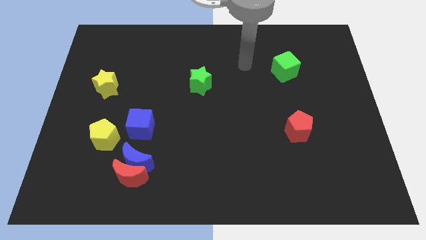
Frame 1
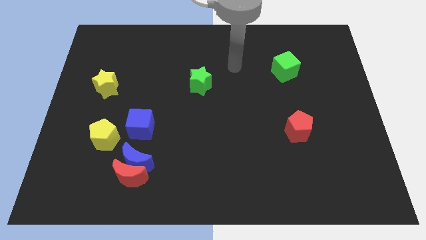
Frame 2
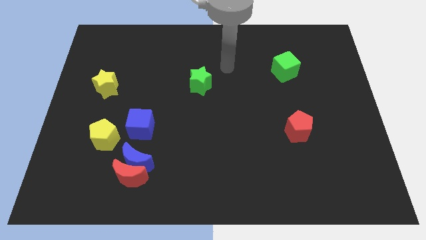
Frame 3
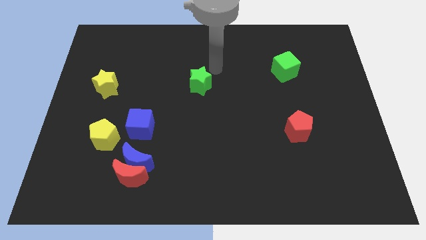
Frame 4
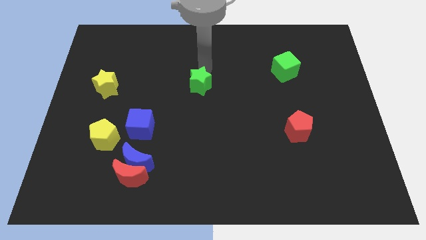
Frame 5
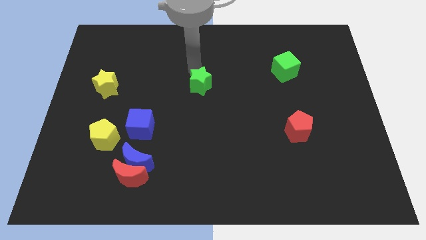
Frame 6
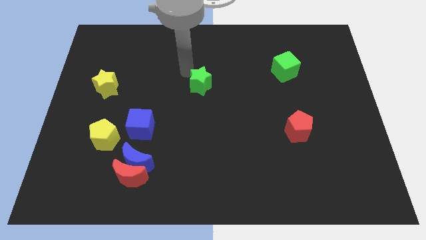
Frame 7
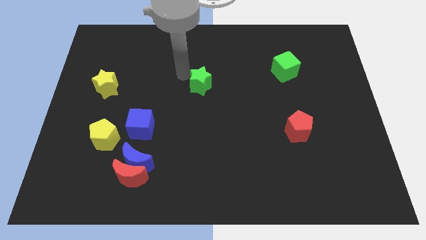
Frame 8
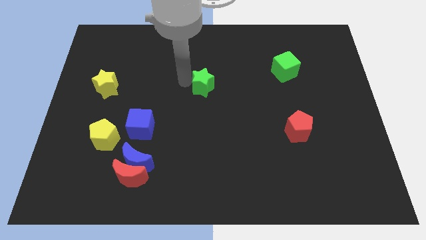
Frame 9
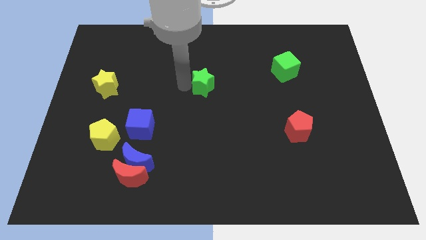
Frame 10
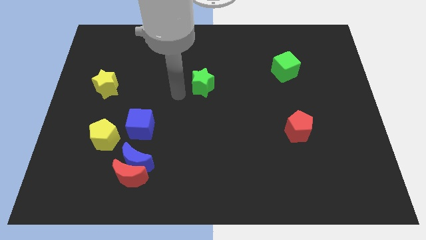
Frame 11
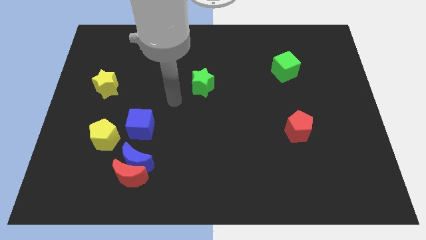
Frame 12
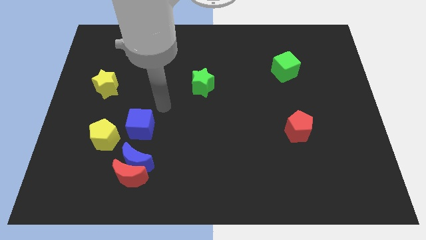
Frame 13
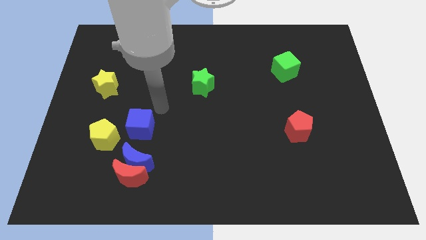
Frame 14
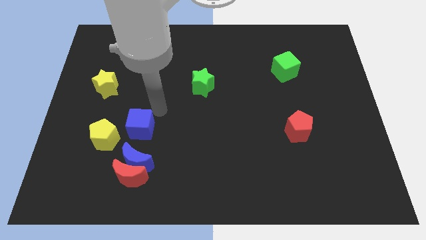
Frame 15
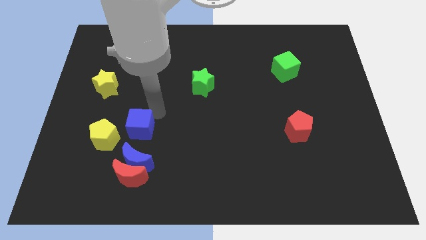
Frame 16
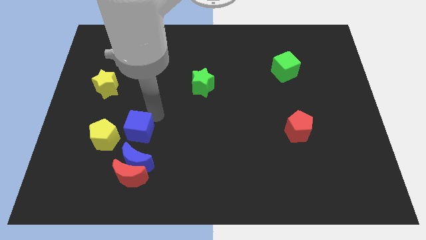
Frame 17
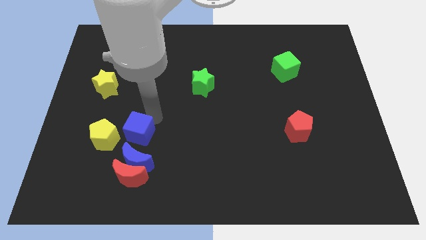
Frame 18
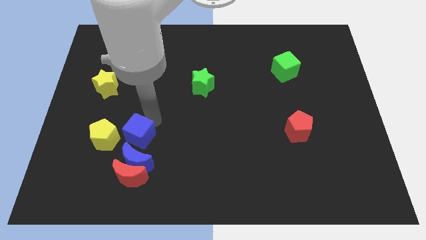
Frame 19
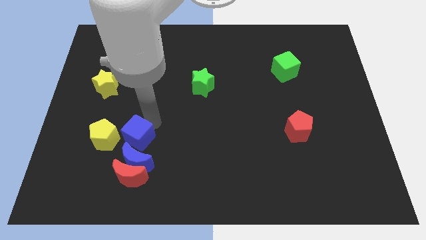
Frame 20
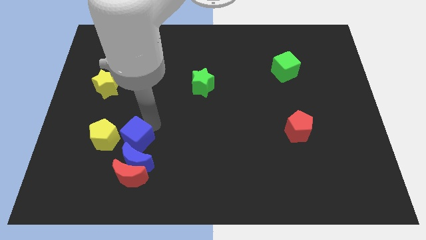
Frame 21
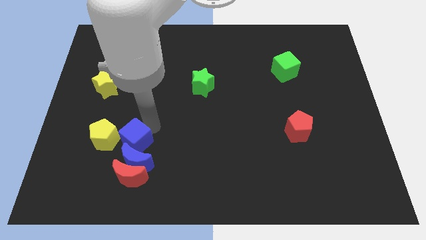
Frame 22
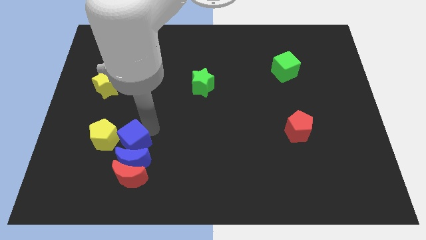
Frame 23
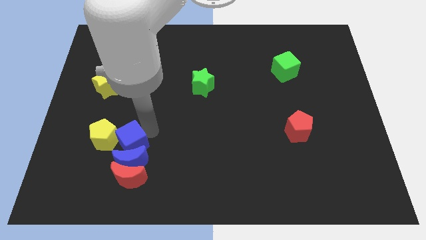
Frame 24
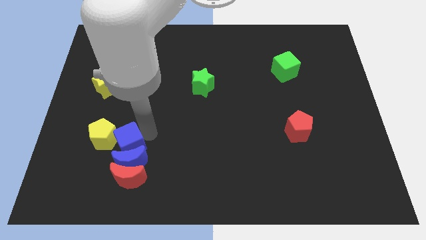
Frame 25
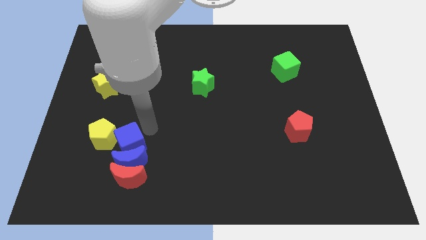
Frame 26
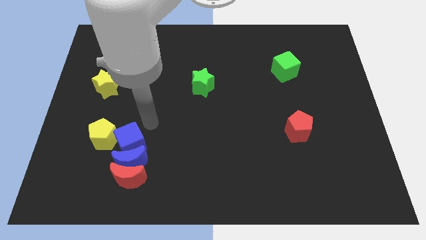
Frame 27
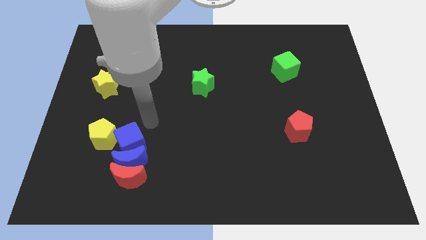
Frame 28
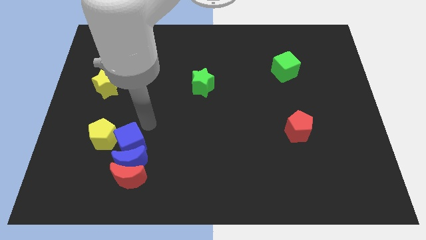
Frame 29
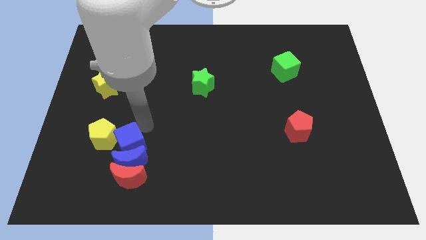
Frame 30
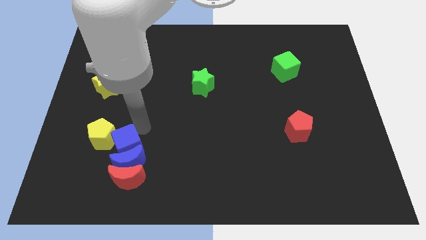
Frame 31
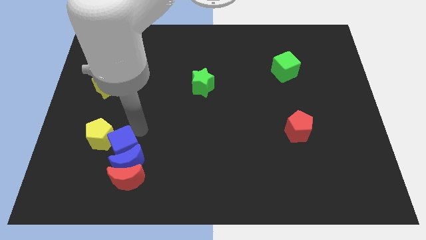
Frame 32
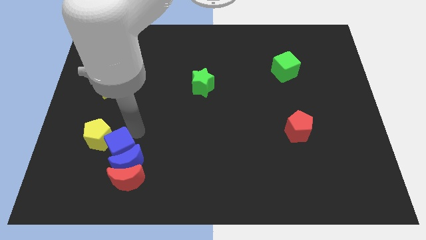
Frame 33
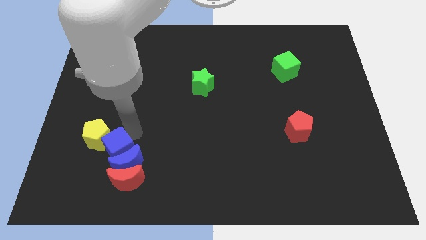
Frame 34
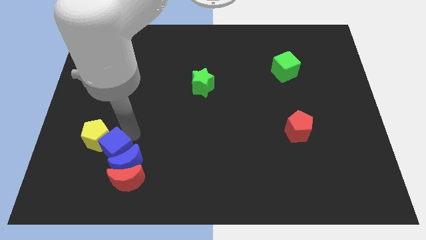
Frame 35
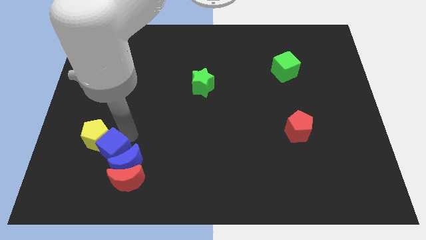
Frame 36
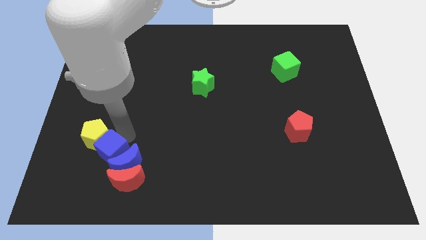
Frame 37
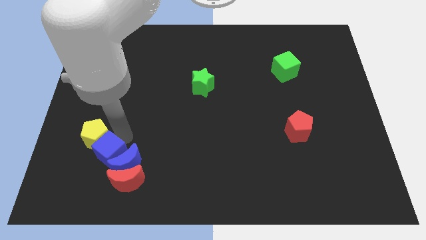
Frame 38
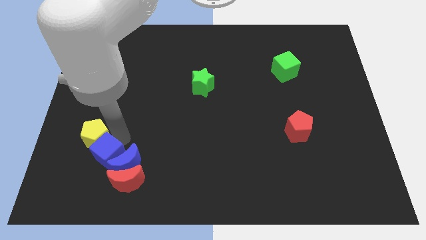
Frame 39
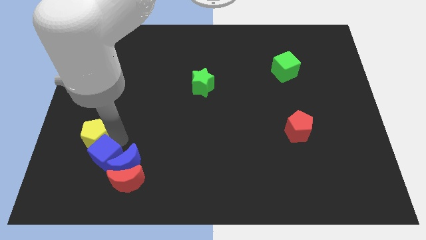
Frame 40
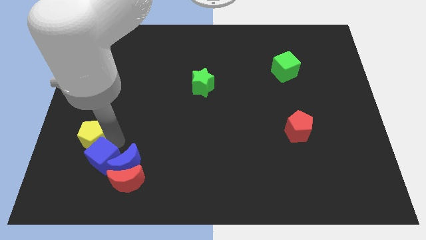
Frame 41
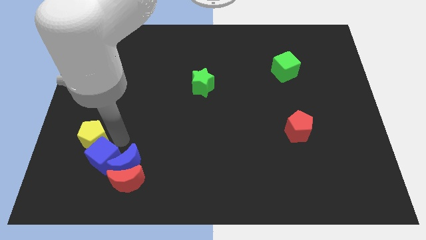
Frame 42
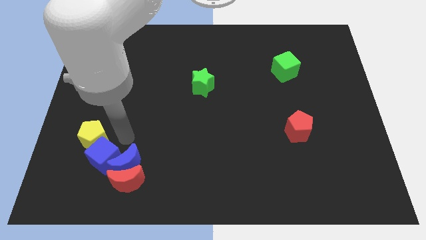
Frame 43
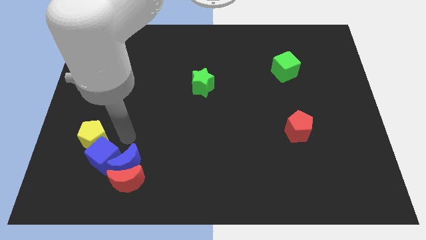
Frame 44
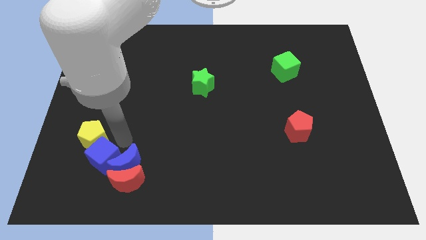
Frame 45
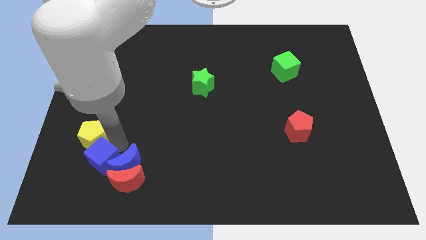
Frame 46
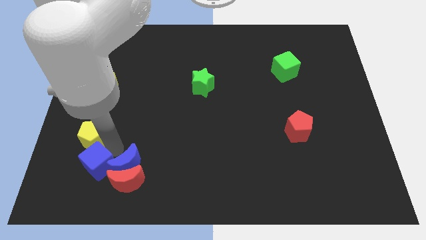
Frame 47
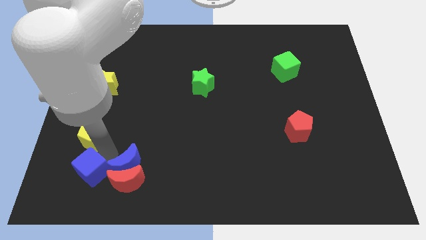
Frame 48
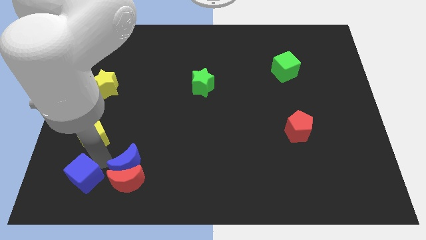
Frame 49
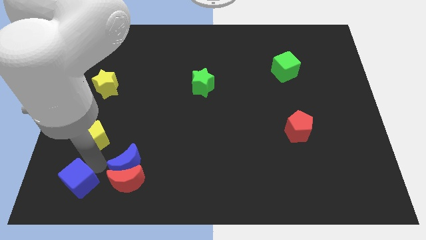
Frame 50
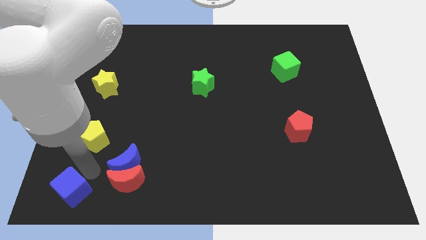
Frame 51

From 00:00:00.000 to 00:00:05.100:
move the blue cube to the bottom left of the board

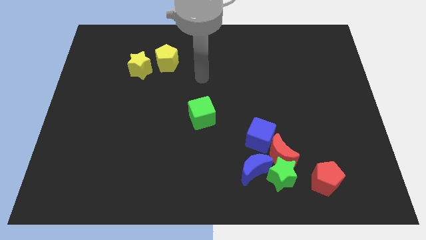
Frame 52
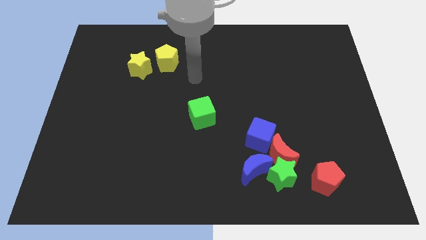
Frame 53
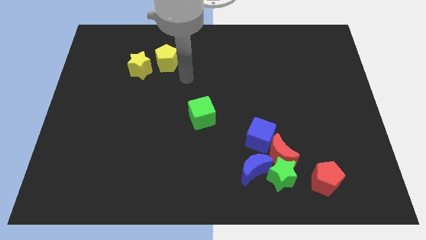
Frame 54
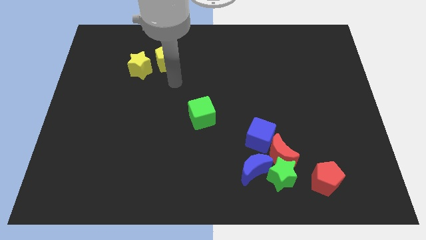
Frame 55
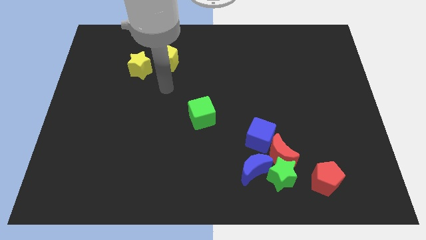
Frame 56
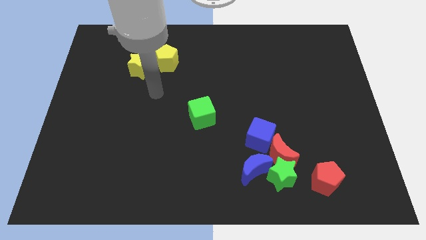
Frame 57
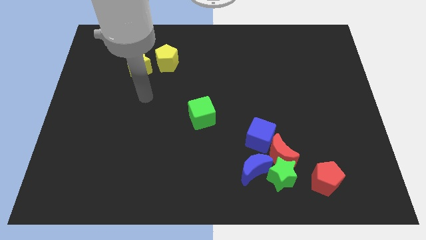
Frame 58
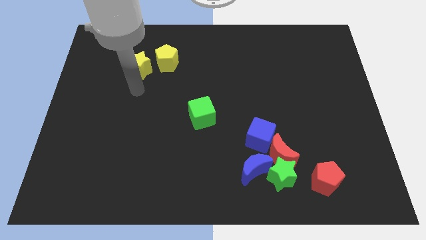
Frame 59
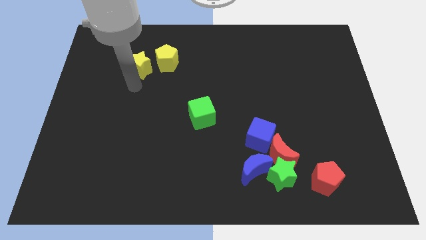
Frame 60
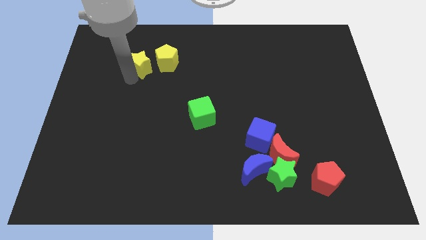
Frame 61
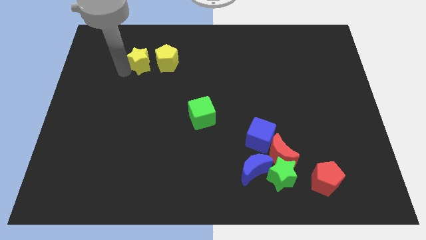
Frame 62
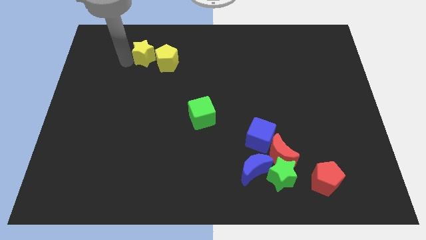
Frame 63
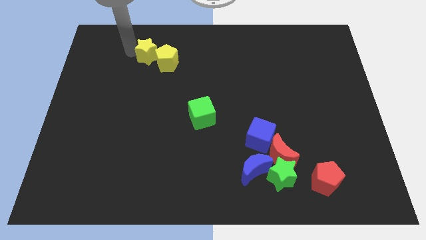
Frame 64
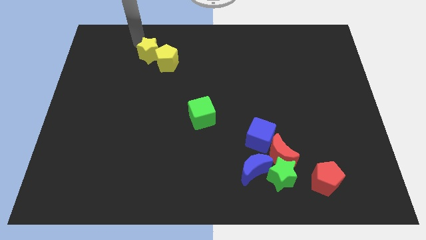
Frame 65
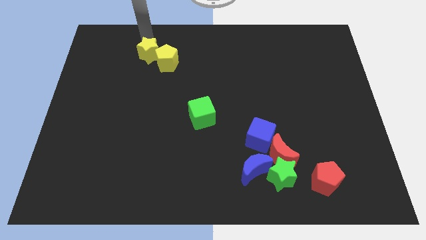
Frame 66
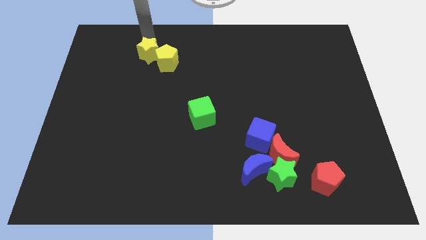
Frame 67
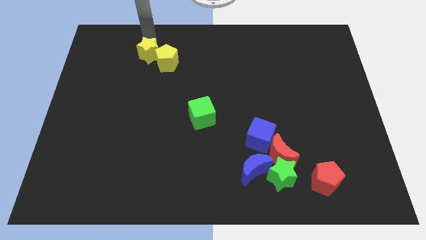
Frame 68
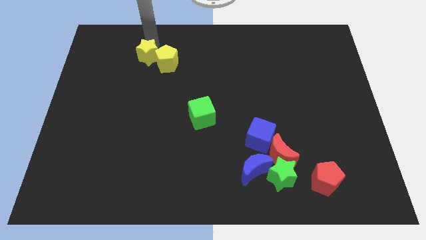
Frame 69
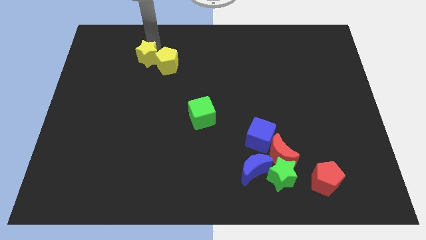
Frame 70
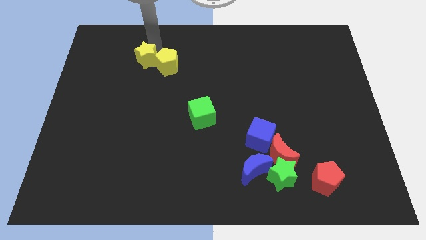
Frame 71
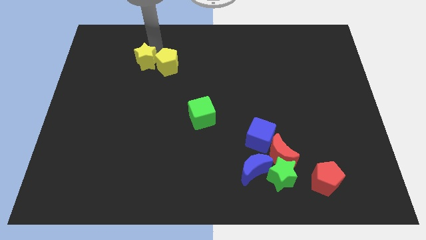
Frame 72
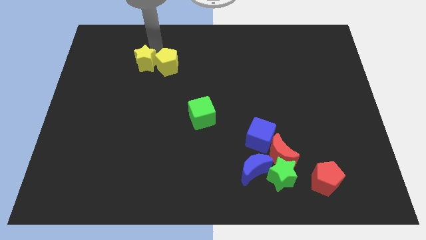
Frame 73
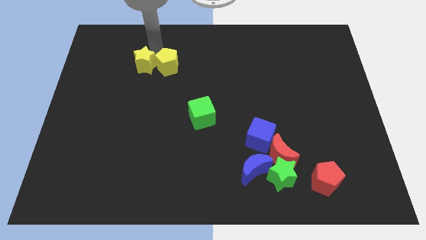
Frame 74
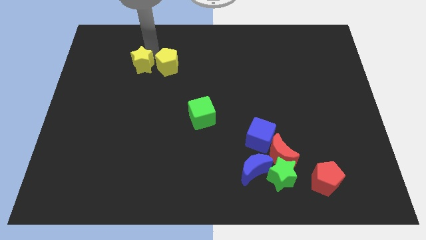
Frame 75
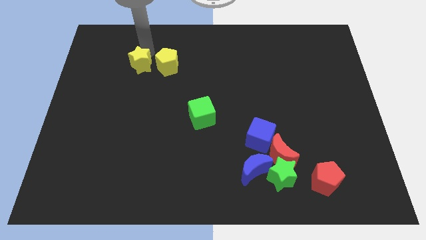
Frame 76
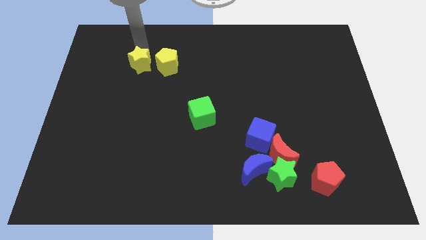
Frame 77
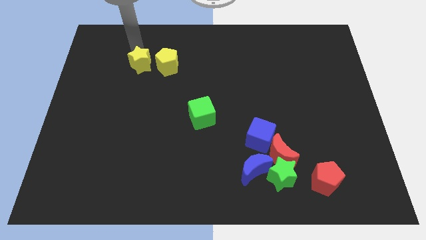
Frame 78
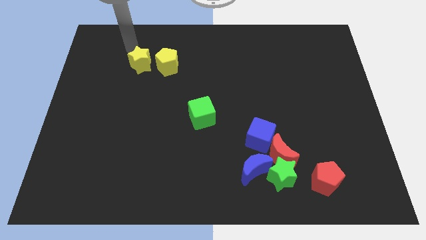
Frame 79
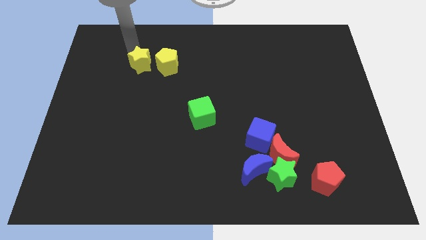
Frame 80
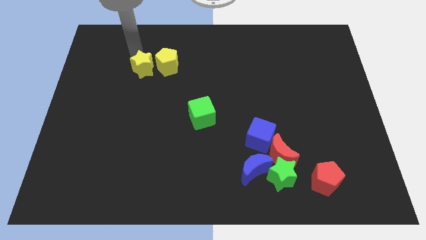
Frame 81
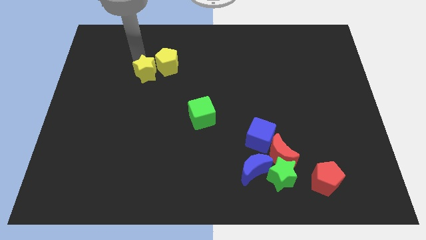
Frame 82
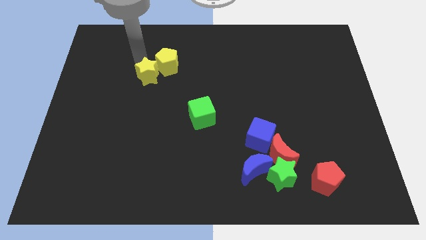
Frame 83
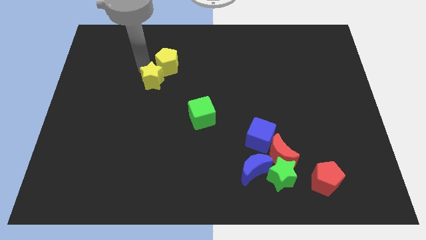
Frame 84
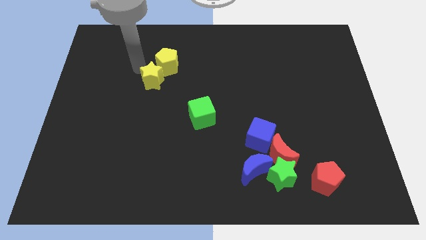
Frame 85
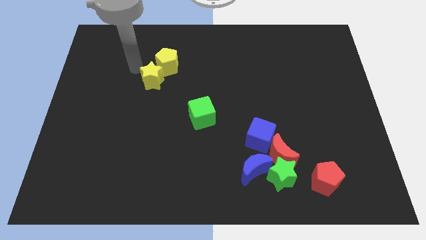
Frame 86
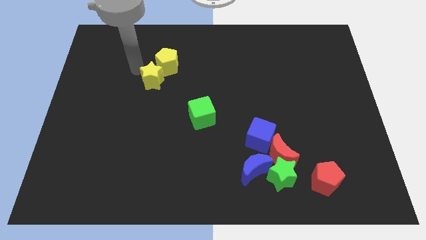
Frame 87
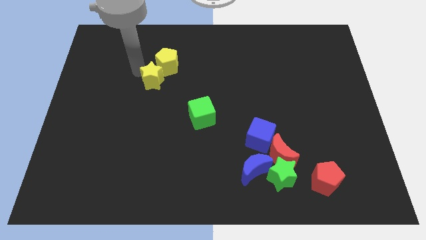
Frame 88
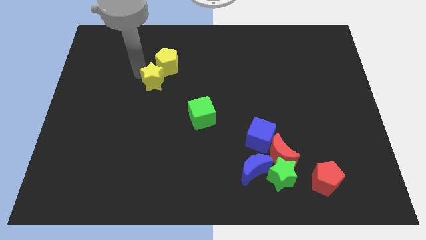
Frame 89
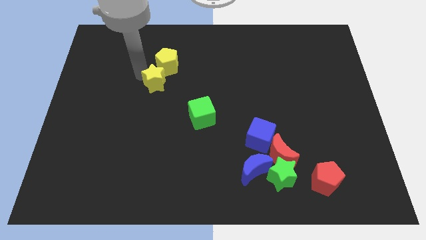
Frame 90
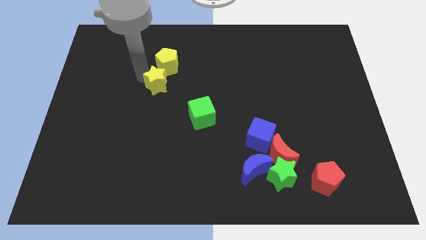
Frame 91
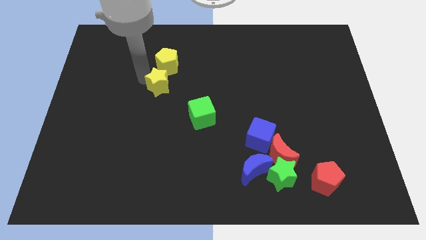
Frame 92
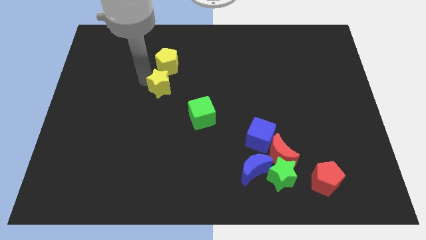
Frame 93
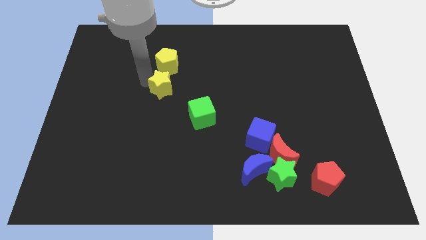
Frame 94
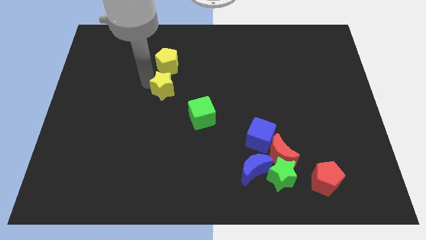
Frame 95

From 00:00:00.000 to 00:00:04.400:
move the yellow star to the center
